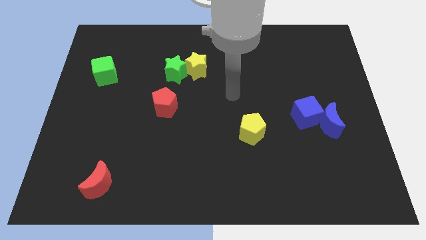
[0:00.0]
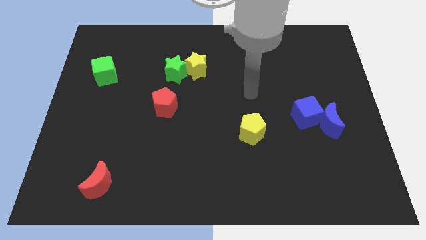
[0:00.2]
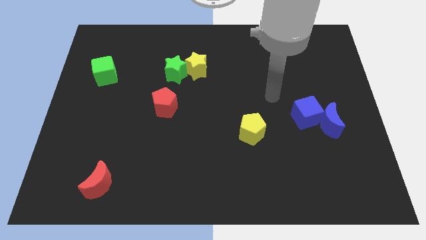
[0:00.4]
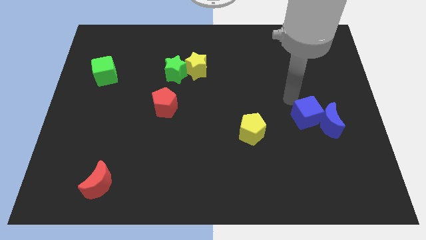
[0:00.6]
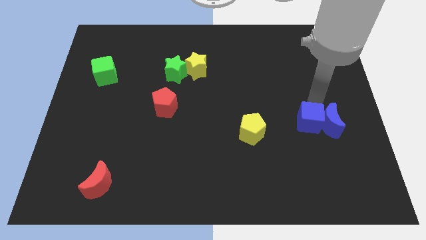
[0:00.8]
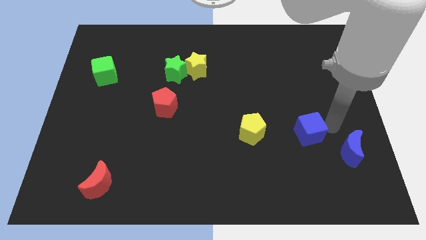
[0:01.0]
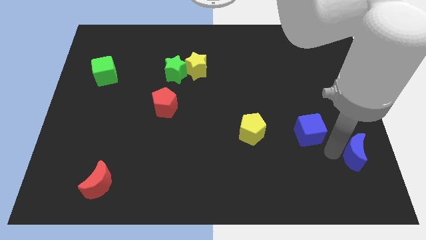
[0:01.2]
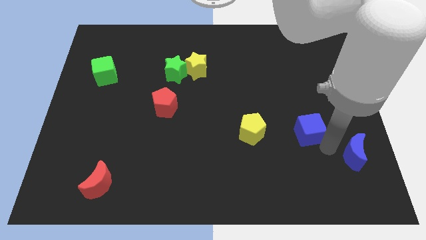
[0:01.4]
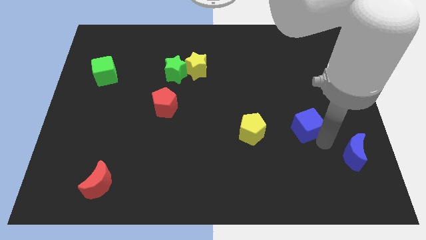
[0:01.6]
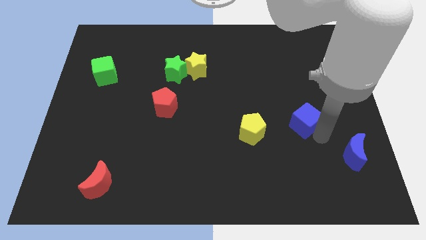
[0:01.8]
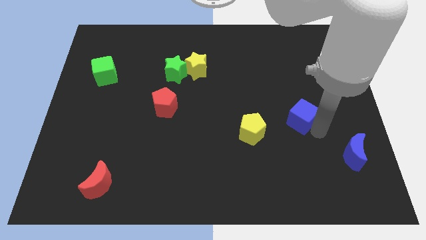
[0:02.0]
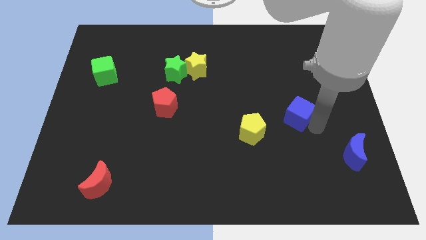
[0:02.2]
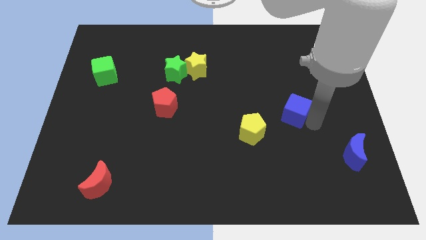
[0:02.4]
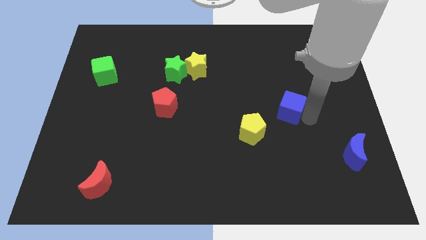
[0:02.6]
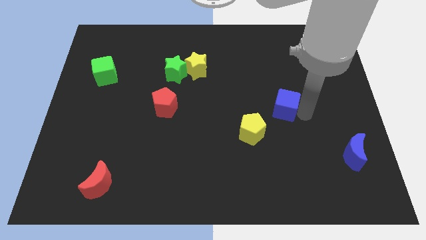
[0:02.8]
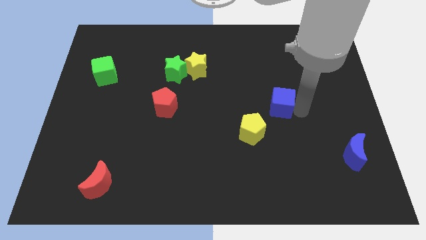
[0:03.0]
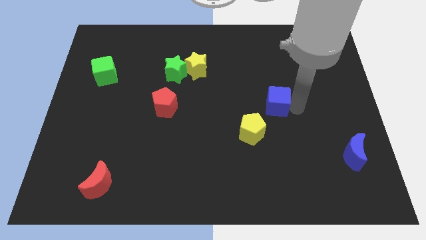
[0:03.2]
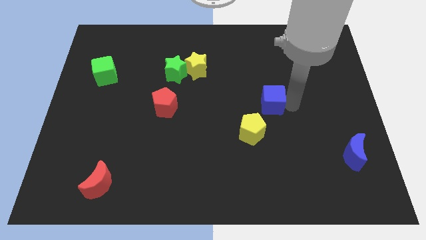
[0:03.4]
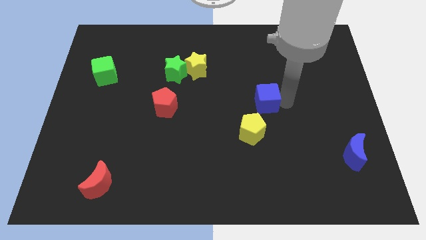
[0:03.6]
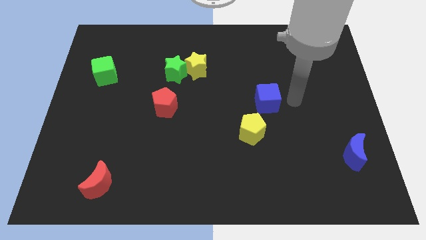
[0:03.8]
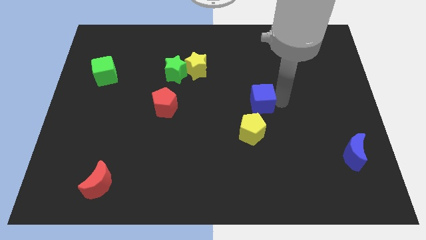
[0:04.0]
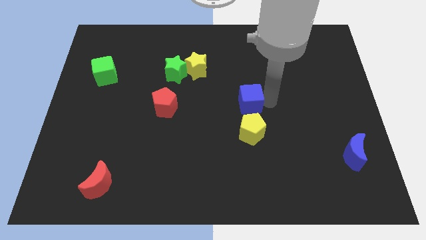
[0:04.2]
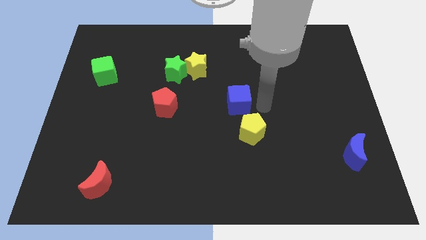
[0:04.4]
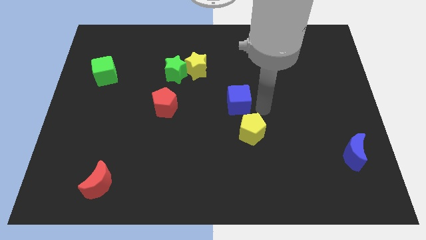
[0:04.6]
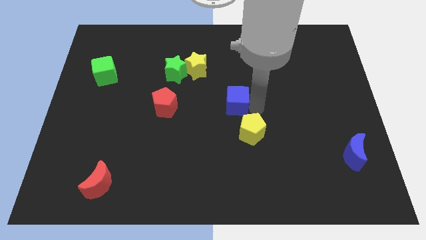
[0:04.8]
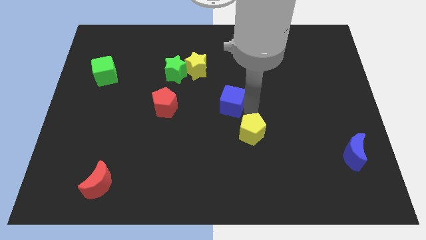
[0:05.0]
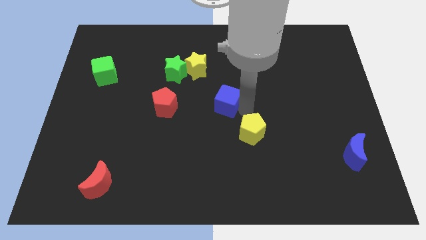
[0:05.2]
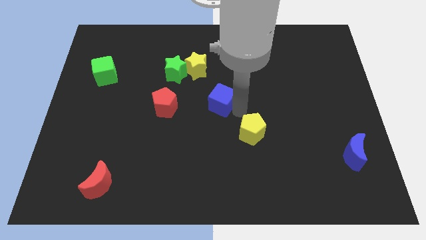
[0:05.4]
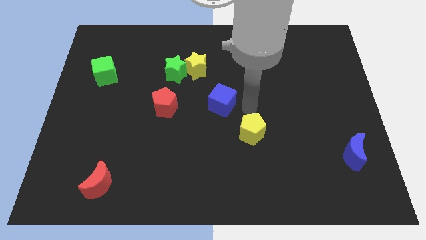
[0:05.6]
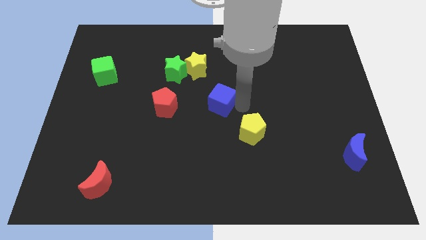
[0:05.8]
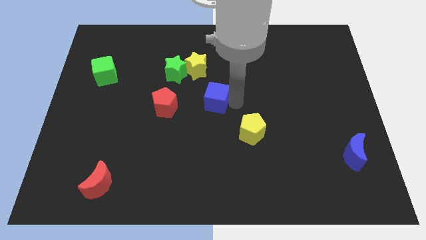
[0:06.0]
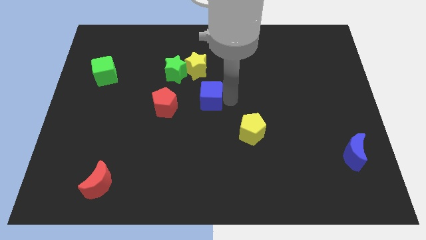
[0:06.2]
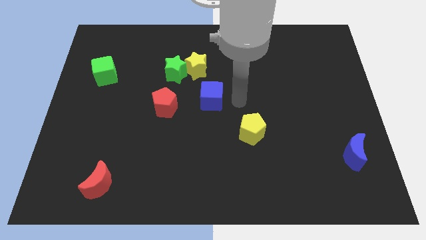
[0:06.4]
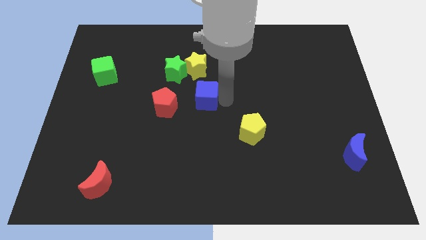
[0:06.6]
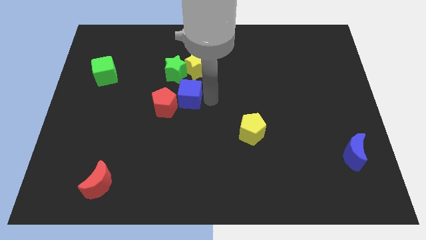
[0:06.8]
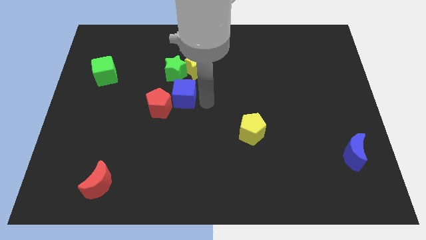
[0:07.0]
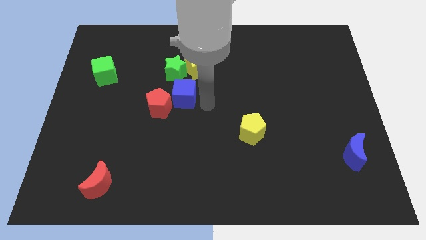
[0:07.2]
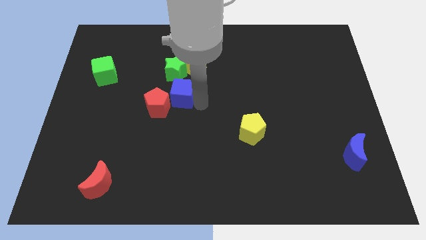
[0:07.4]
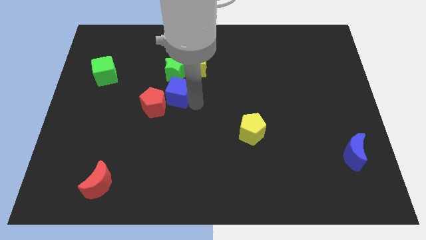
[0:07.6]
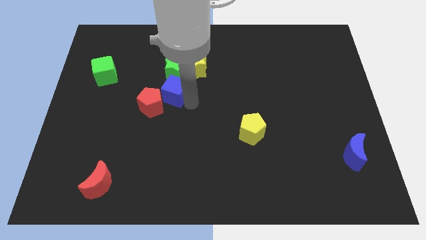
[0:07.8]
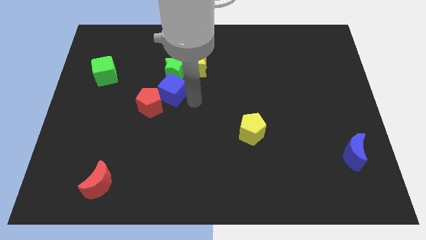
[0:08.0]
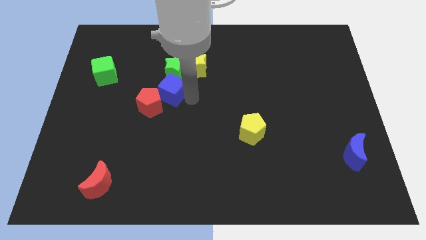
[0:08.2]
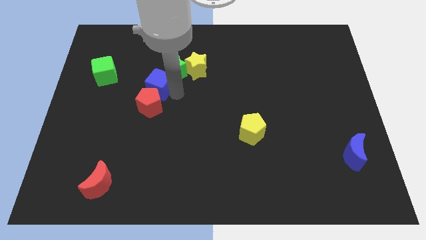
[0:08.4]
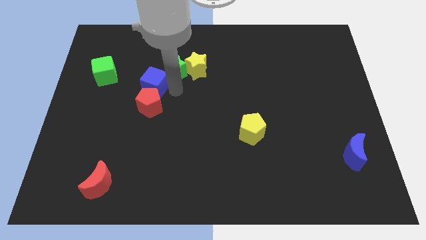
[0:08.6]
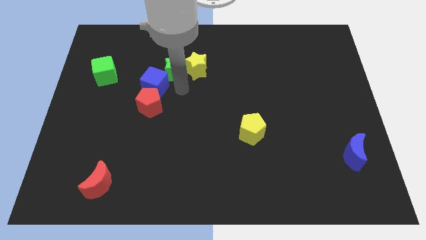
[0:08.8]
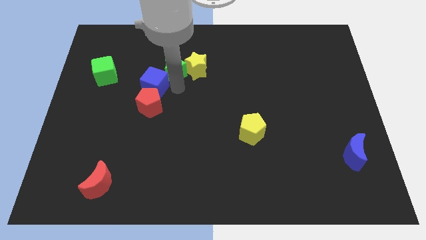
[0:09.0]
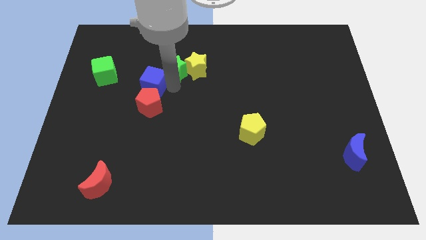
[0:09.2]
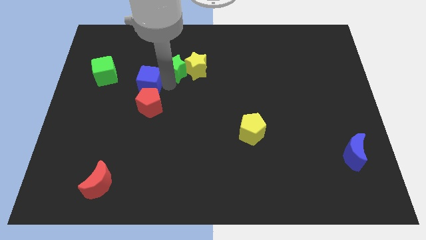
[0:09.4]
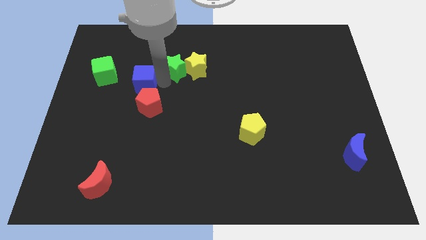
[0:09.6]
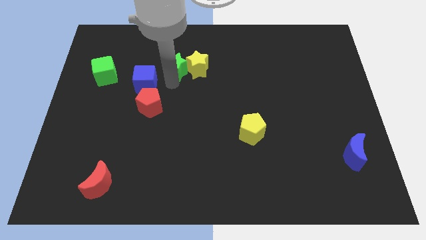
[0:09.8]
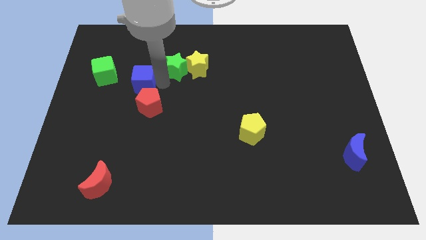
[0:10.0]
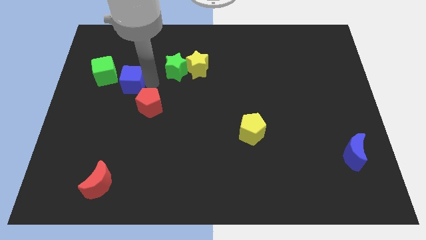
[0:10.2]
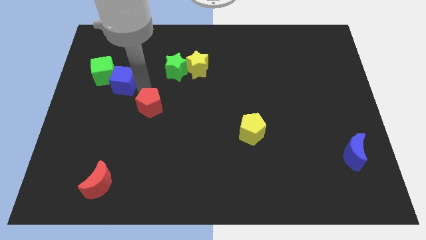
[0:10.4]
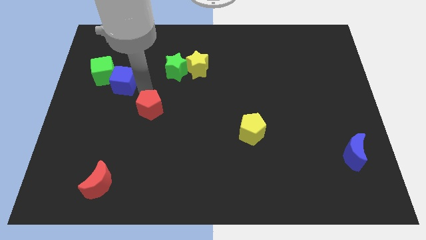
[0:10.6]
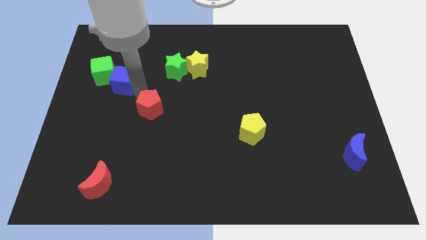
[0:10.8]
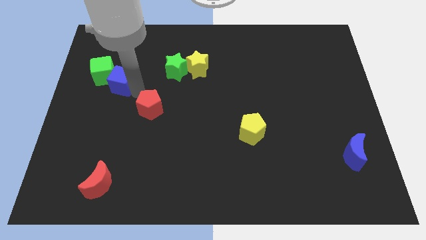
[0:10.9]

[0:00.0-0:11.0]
put the blue cube close to the green cube

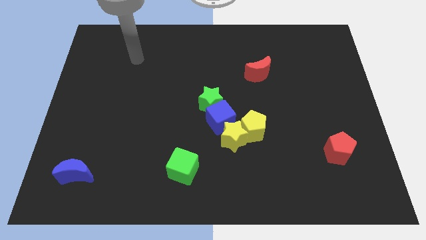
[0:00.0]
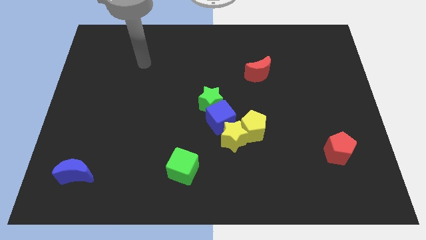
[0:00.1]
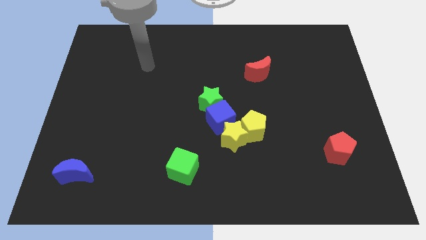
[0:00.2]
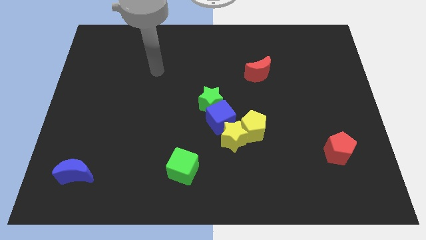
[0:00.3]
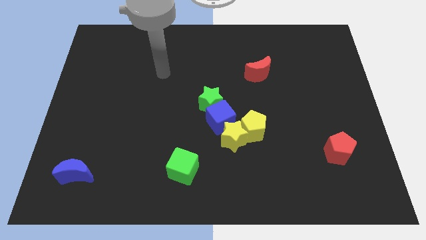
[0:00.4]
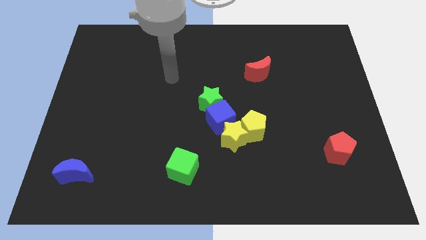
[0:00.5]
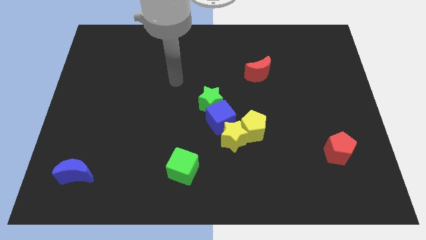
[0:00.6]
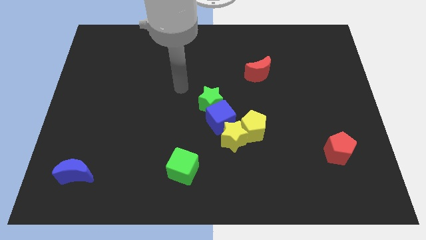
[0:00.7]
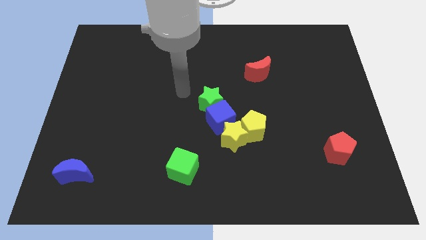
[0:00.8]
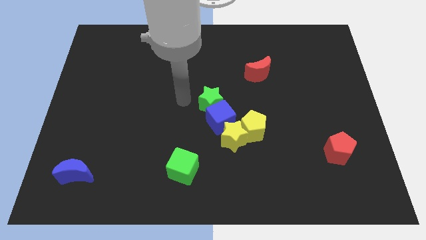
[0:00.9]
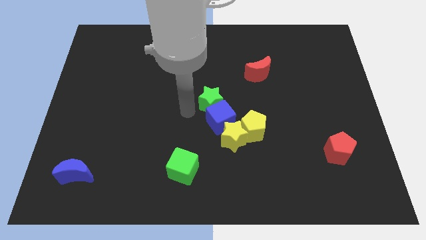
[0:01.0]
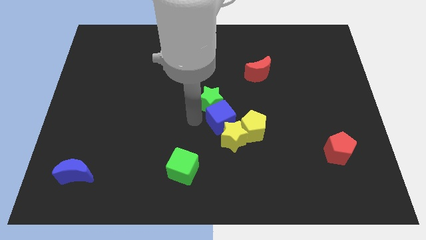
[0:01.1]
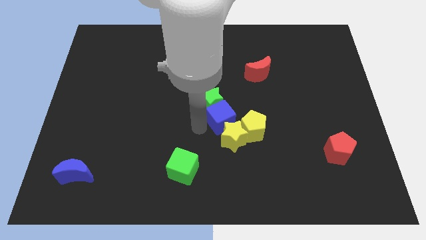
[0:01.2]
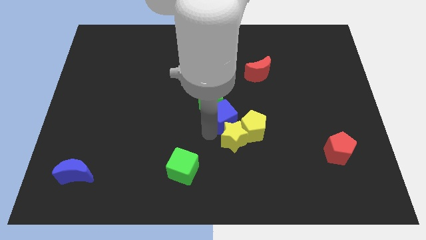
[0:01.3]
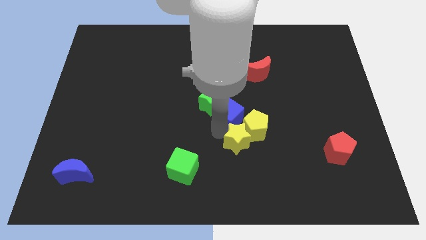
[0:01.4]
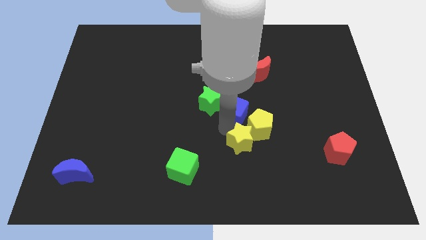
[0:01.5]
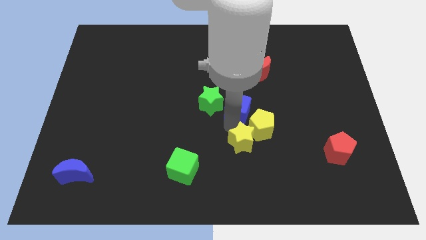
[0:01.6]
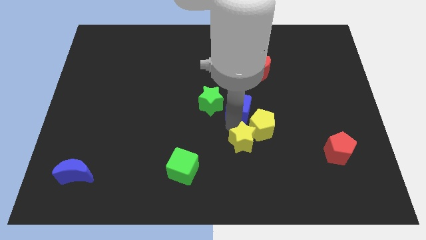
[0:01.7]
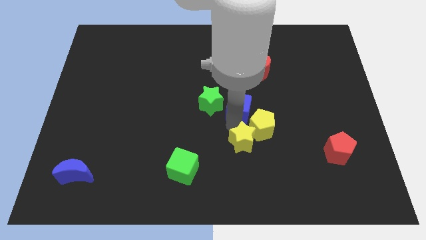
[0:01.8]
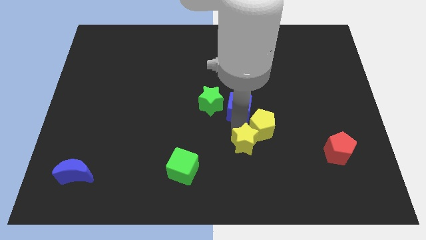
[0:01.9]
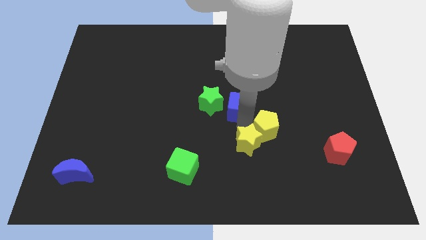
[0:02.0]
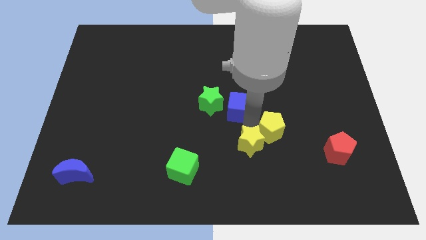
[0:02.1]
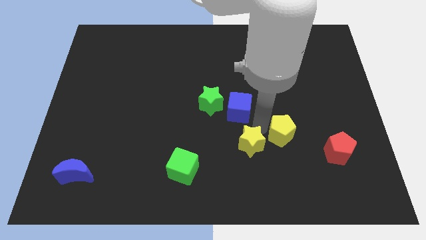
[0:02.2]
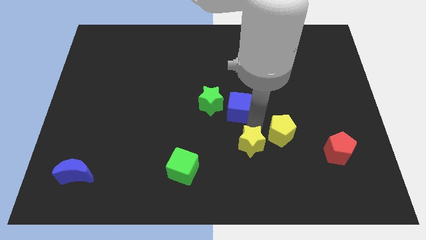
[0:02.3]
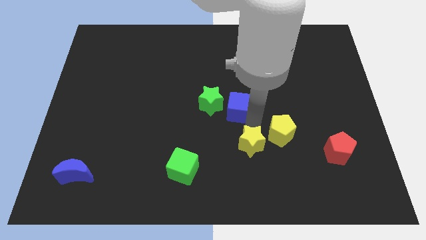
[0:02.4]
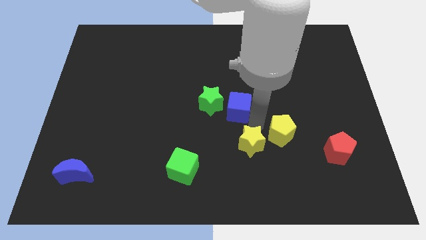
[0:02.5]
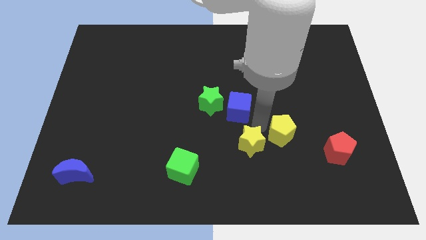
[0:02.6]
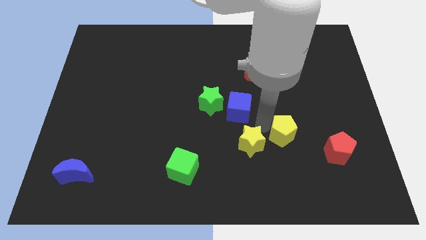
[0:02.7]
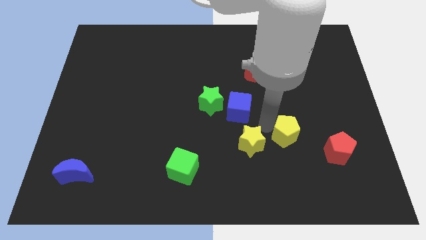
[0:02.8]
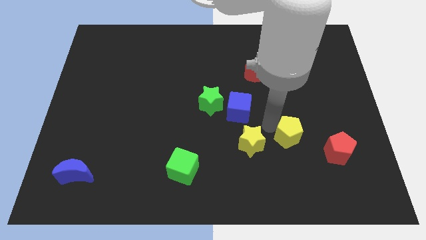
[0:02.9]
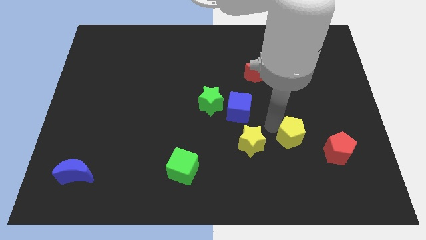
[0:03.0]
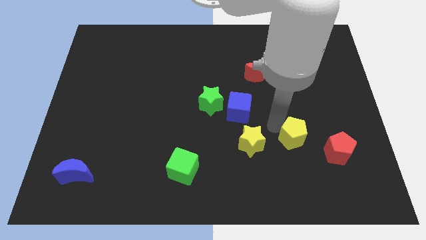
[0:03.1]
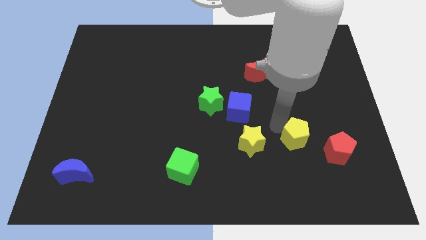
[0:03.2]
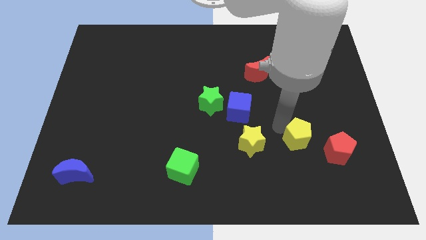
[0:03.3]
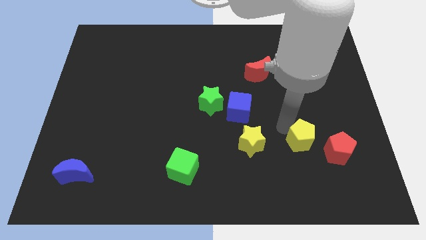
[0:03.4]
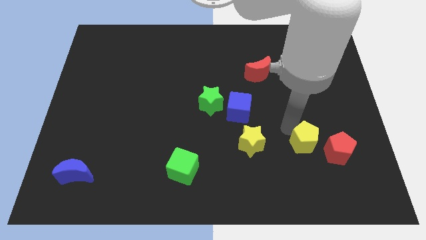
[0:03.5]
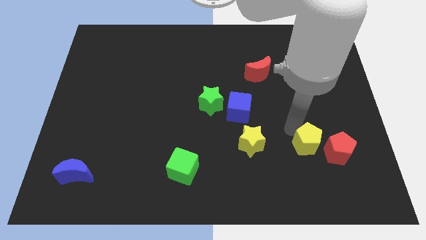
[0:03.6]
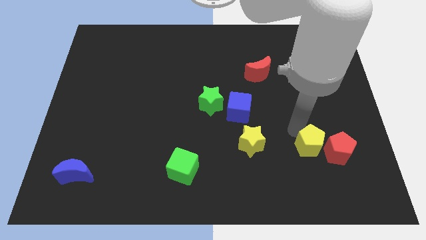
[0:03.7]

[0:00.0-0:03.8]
move the yellow pentagon towards the red pentagon
